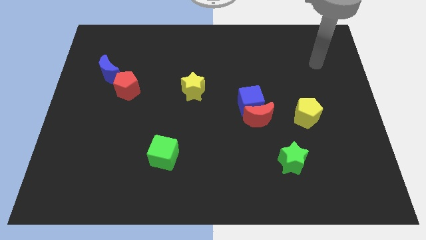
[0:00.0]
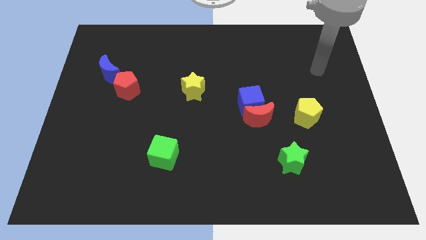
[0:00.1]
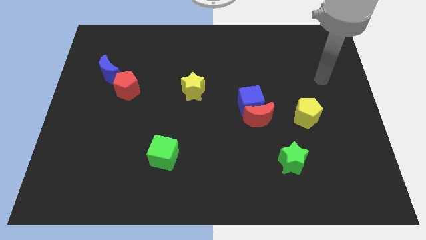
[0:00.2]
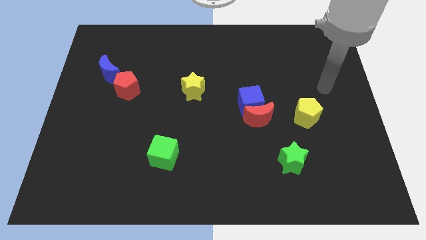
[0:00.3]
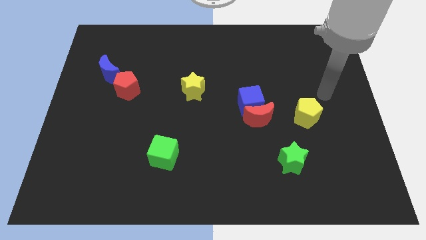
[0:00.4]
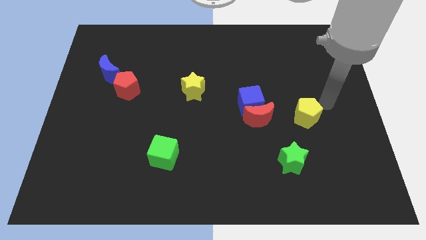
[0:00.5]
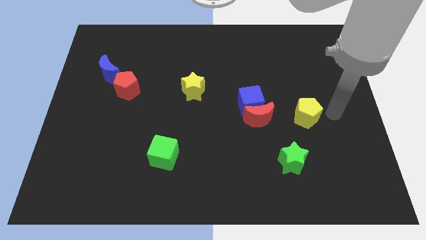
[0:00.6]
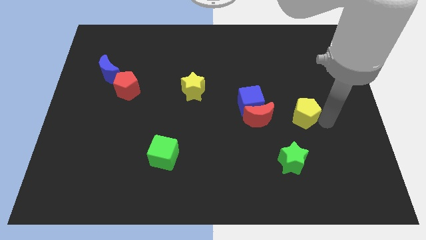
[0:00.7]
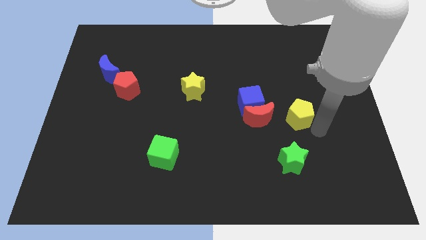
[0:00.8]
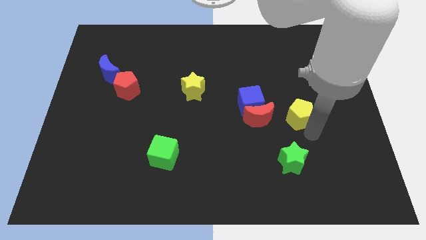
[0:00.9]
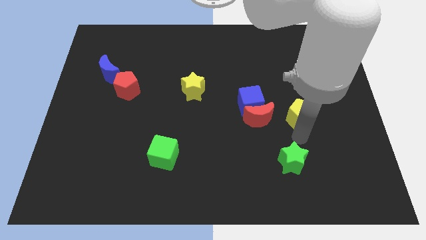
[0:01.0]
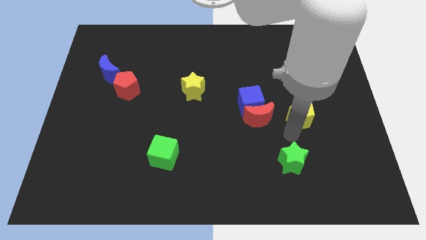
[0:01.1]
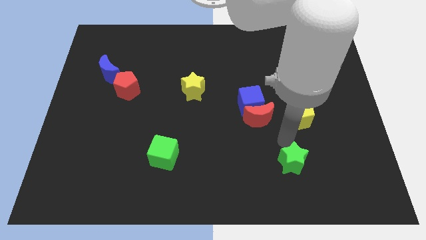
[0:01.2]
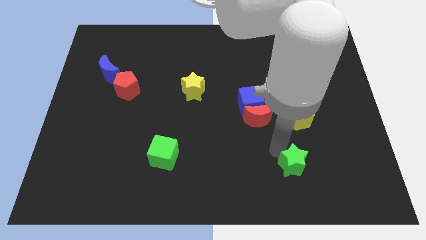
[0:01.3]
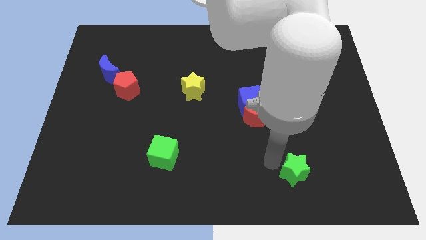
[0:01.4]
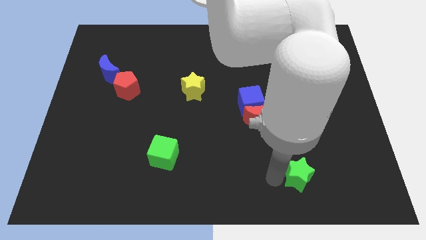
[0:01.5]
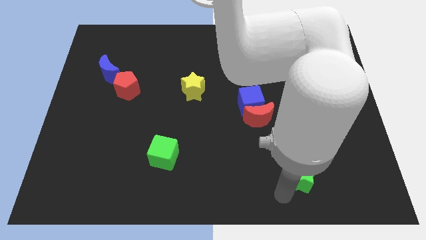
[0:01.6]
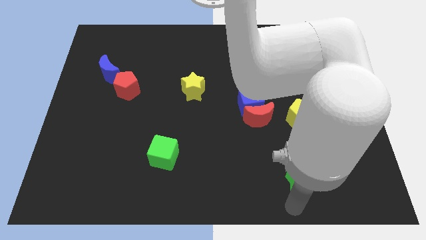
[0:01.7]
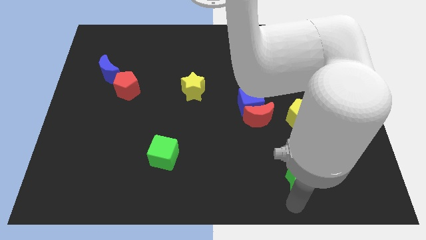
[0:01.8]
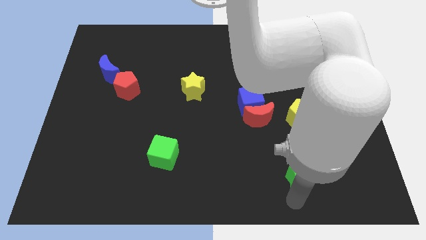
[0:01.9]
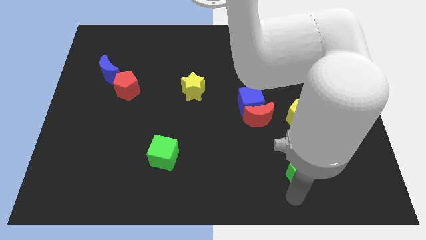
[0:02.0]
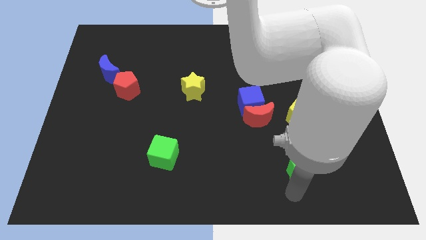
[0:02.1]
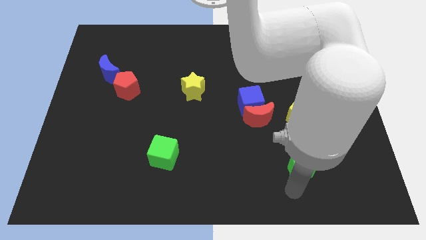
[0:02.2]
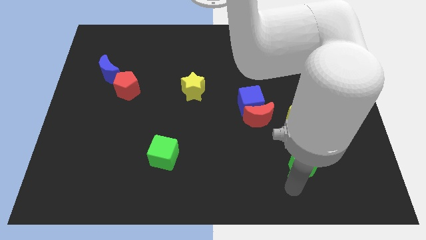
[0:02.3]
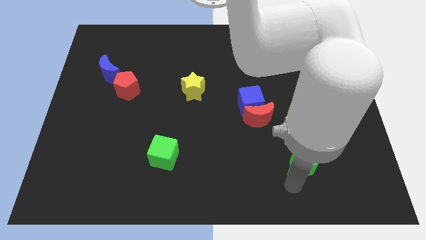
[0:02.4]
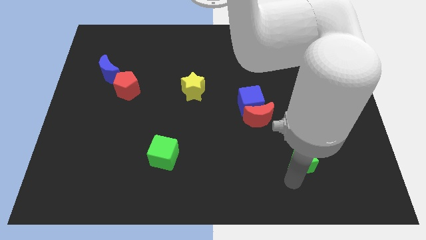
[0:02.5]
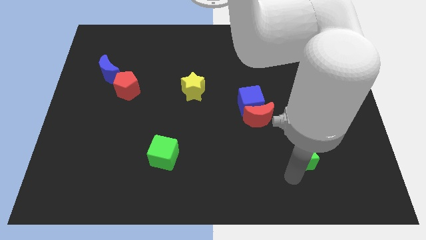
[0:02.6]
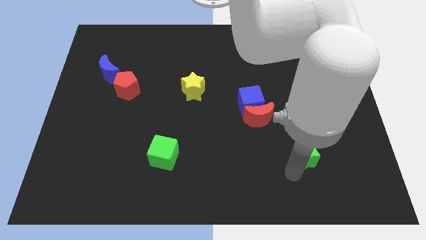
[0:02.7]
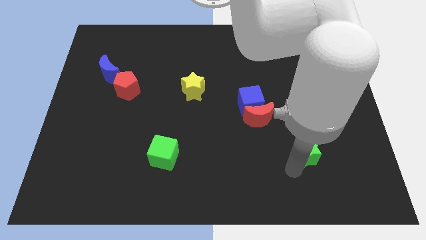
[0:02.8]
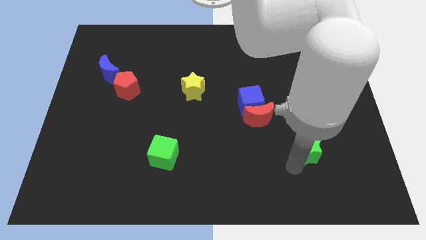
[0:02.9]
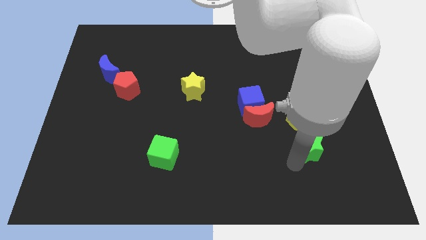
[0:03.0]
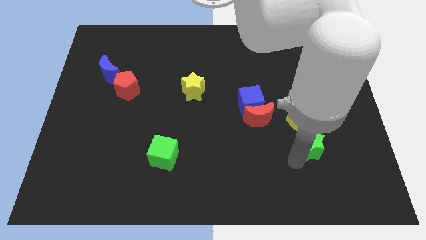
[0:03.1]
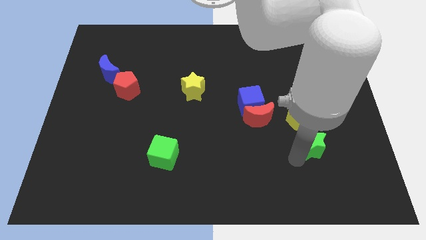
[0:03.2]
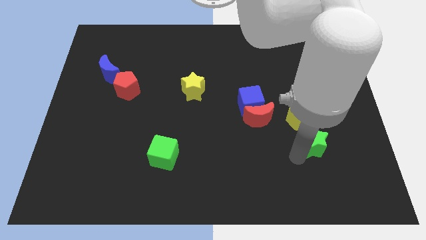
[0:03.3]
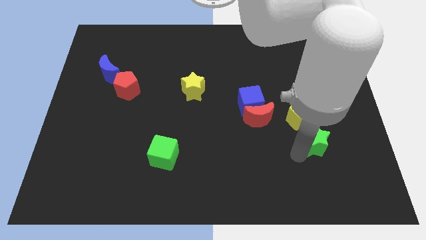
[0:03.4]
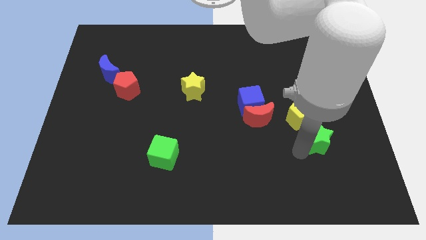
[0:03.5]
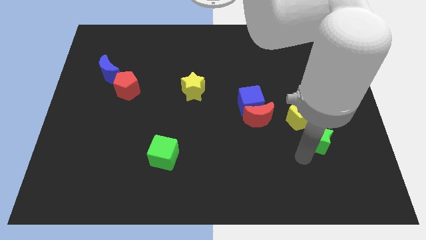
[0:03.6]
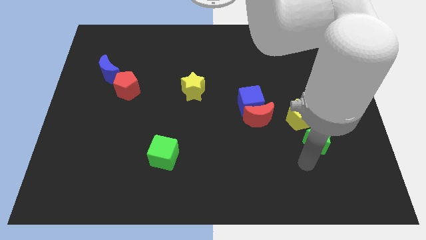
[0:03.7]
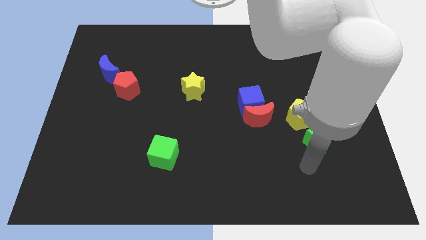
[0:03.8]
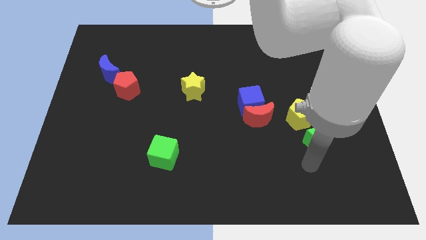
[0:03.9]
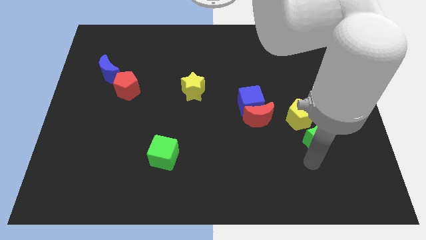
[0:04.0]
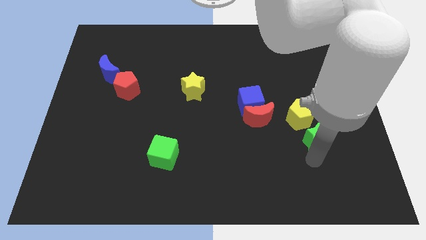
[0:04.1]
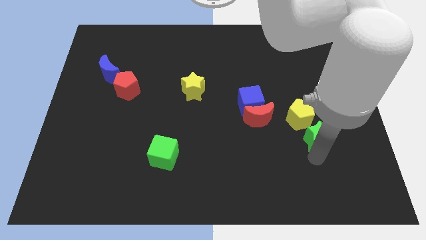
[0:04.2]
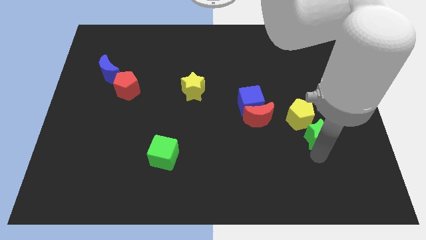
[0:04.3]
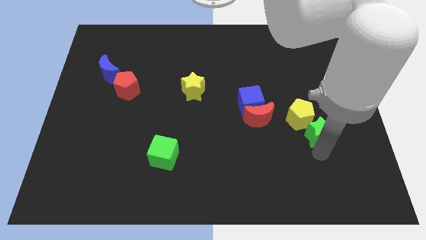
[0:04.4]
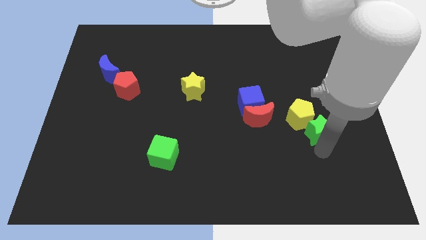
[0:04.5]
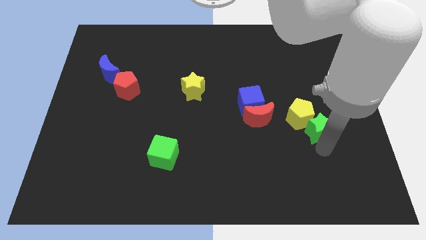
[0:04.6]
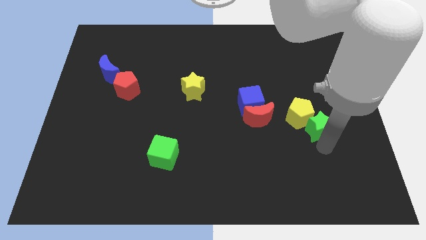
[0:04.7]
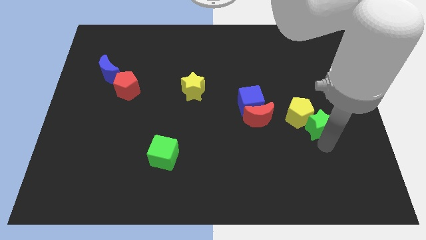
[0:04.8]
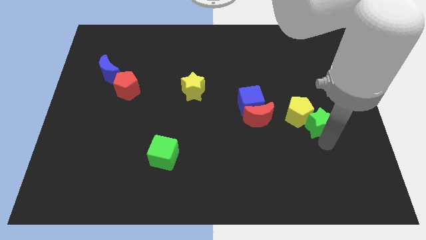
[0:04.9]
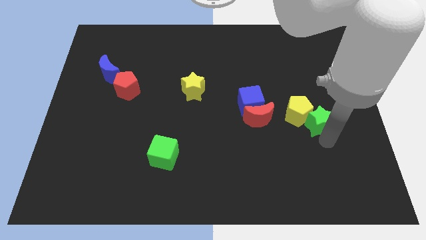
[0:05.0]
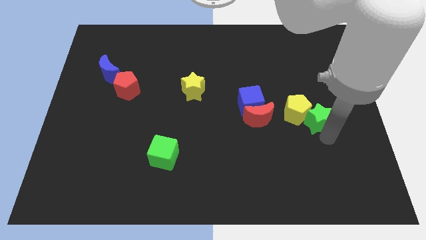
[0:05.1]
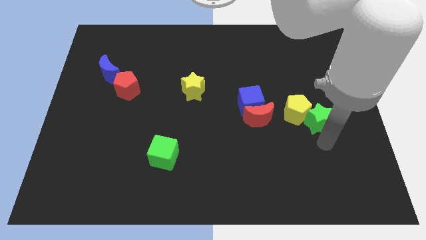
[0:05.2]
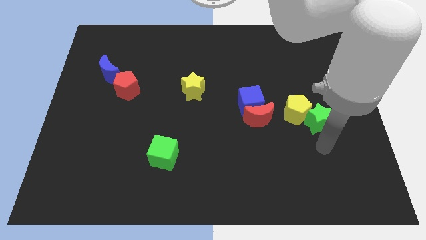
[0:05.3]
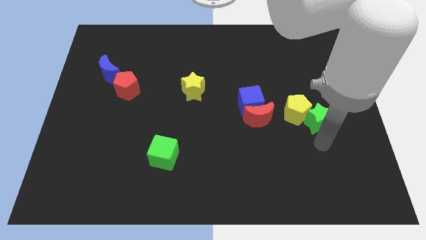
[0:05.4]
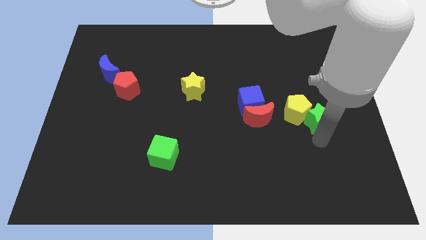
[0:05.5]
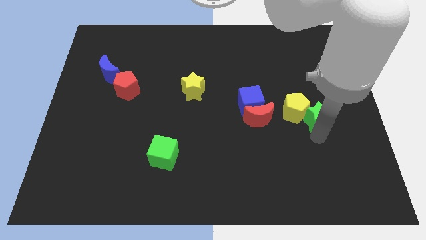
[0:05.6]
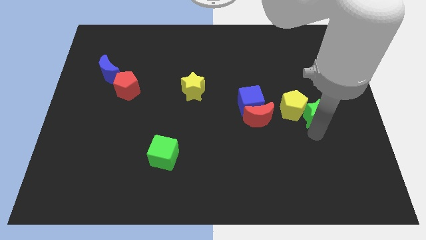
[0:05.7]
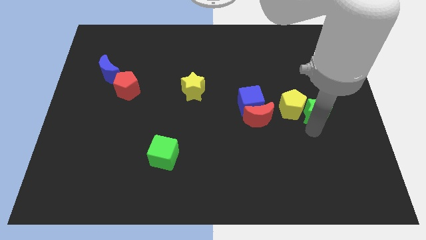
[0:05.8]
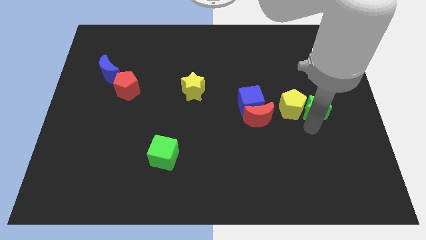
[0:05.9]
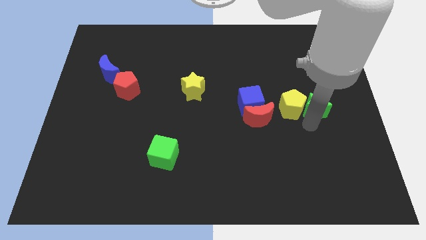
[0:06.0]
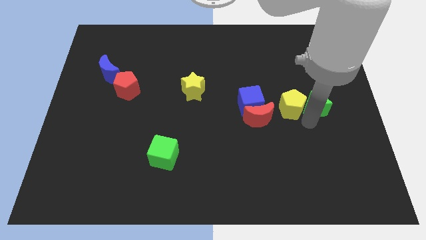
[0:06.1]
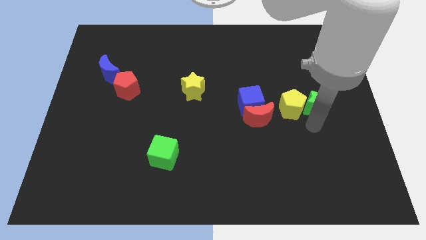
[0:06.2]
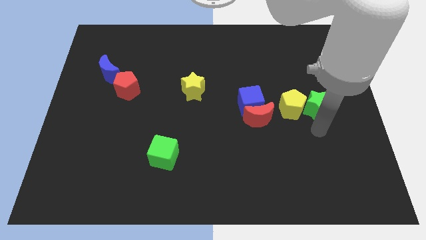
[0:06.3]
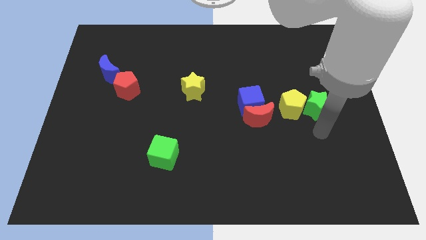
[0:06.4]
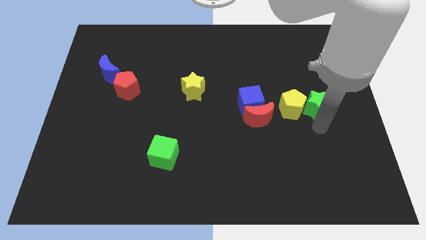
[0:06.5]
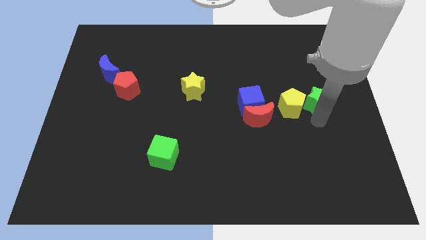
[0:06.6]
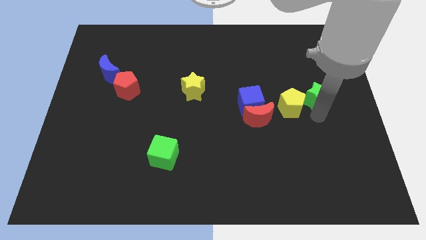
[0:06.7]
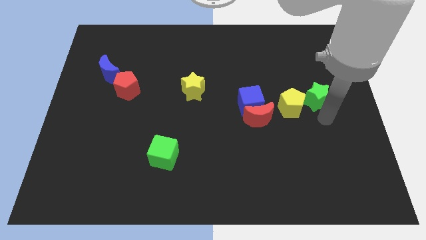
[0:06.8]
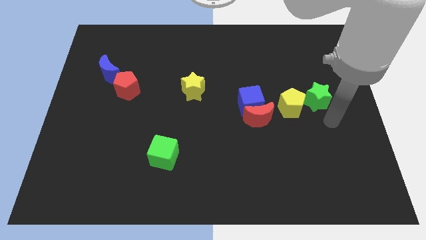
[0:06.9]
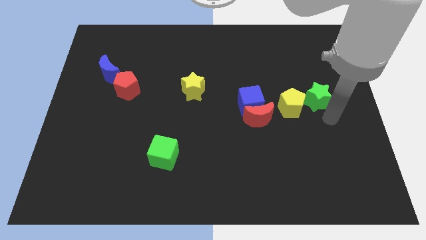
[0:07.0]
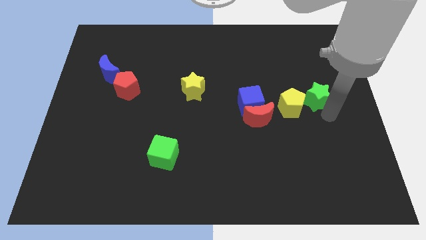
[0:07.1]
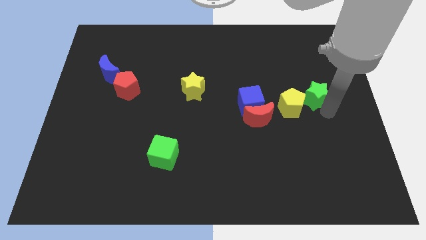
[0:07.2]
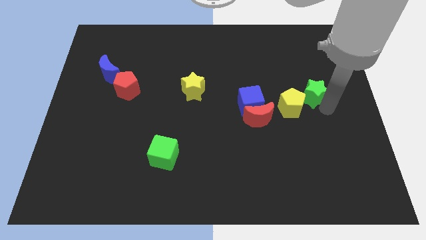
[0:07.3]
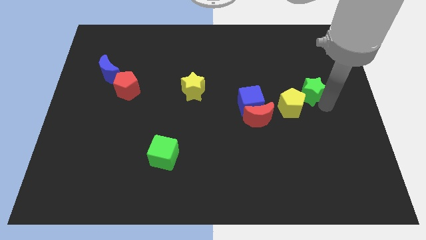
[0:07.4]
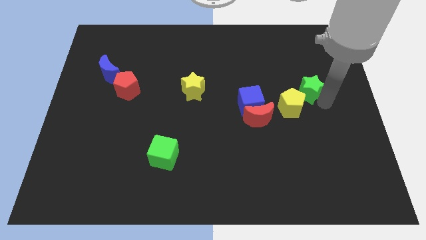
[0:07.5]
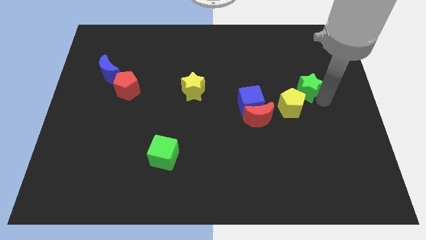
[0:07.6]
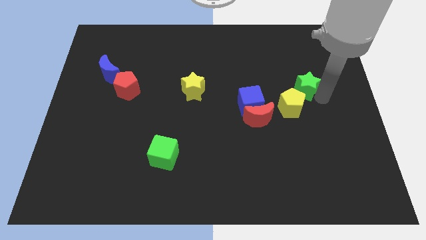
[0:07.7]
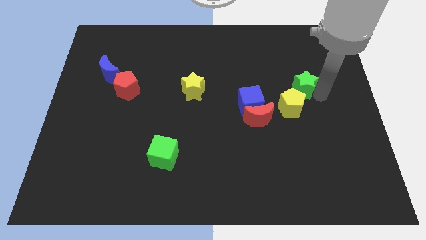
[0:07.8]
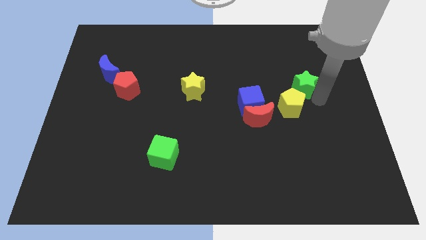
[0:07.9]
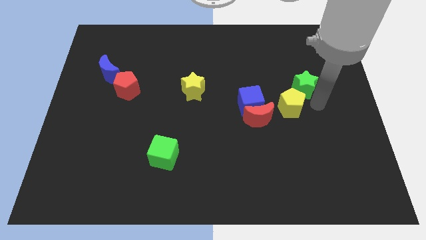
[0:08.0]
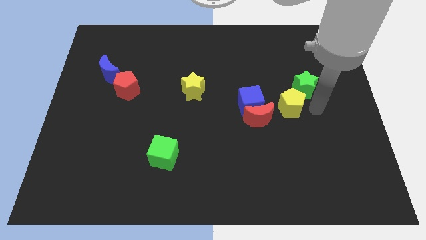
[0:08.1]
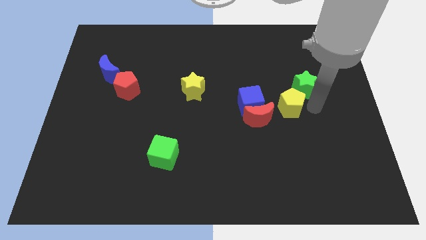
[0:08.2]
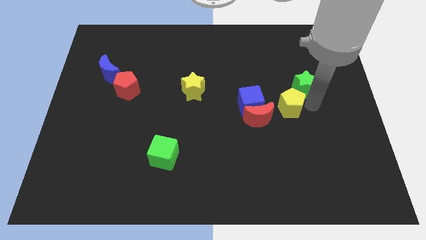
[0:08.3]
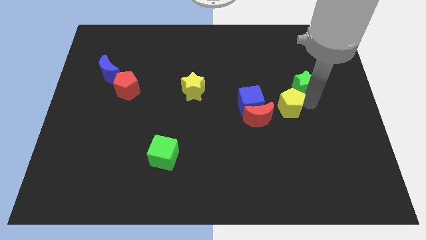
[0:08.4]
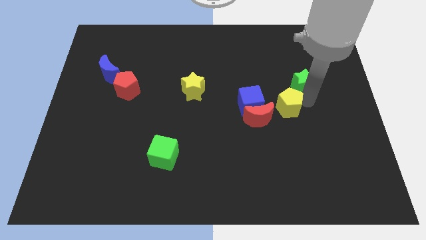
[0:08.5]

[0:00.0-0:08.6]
move the green star upwards
